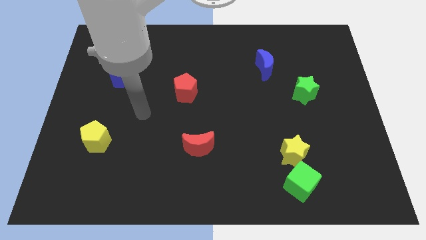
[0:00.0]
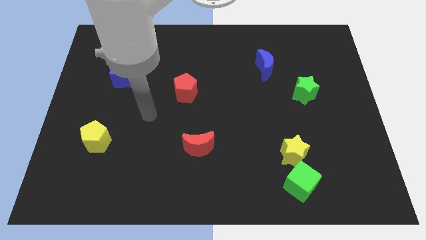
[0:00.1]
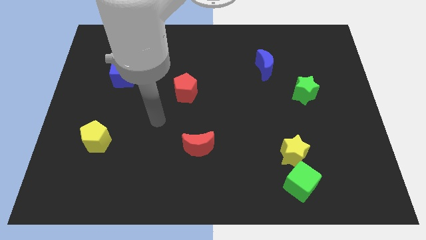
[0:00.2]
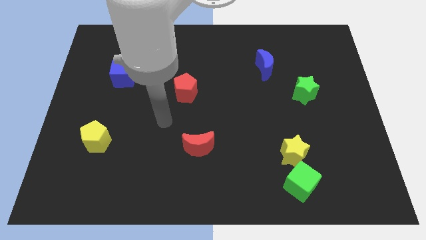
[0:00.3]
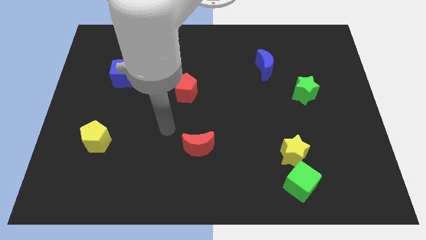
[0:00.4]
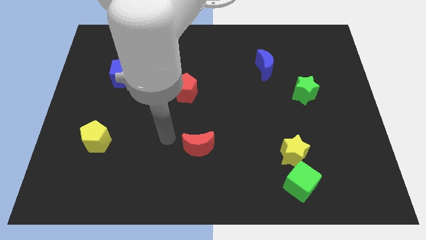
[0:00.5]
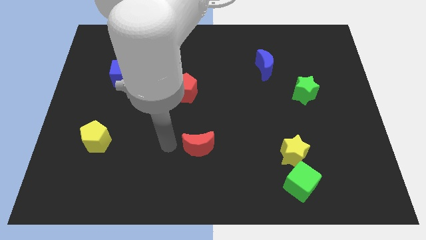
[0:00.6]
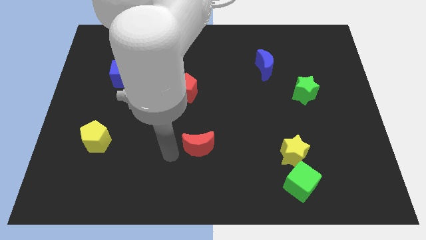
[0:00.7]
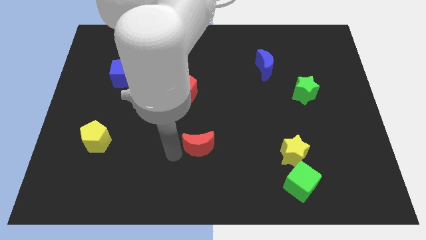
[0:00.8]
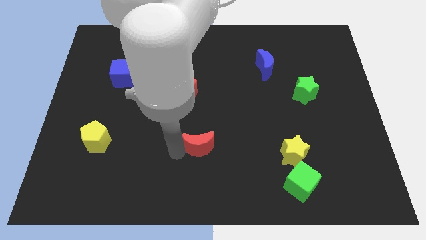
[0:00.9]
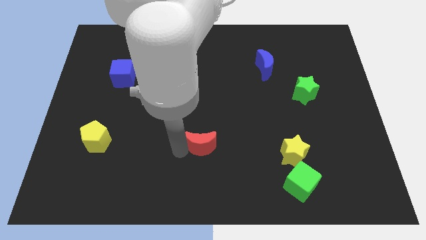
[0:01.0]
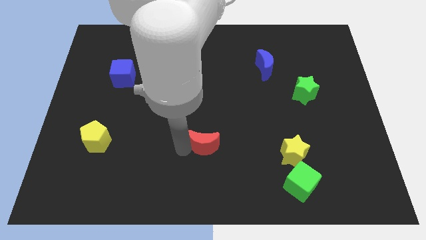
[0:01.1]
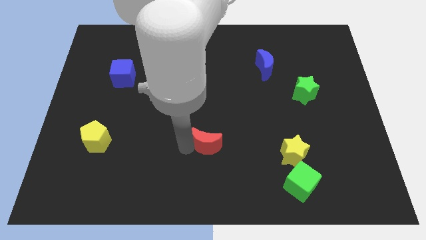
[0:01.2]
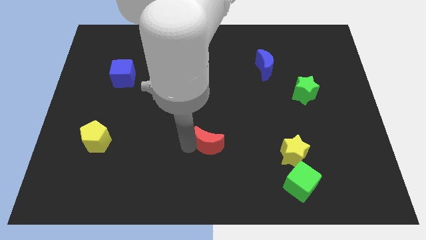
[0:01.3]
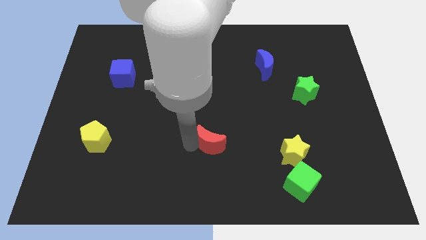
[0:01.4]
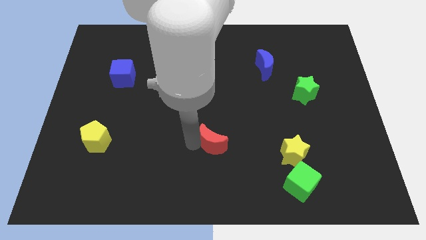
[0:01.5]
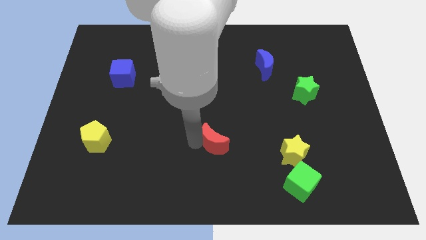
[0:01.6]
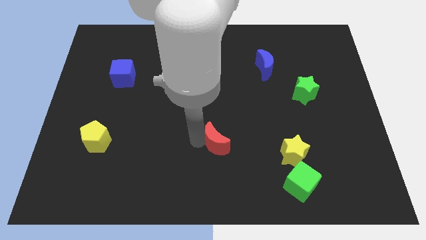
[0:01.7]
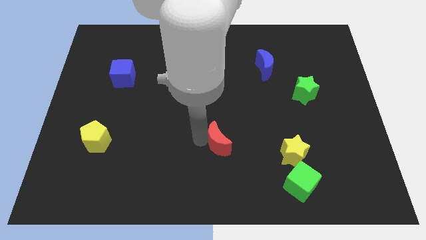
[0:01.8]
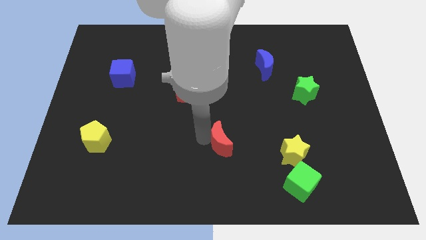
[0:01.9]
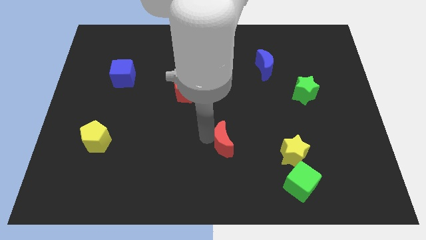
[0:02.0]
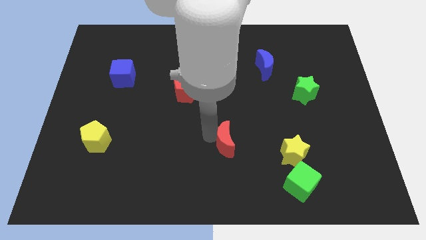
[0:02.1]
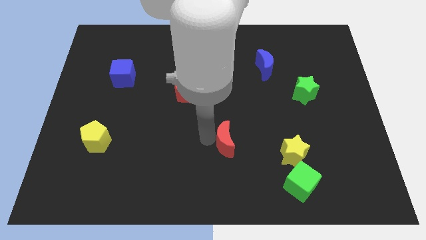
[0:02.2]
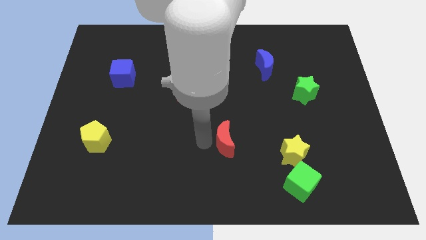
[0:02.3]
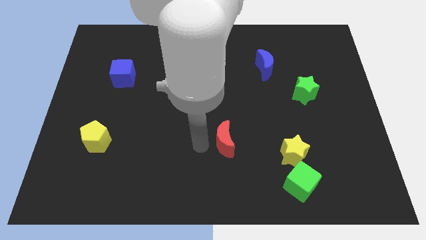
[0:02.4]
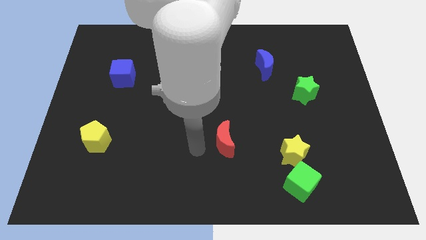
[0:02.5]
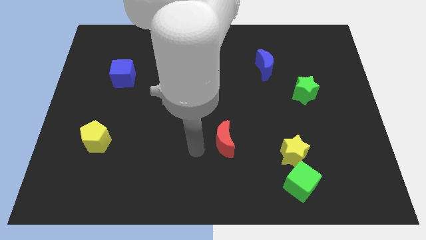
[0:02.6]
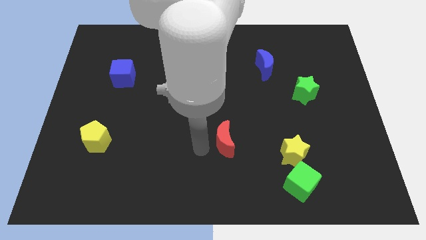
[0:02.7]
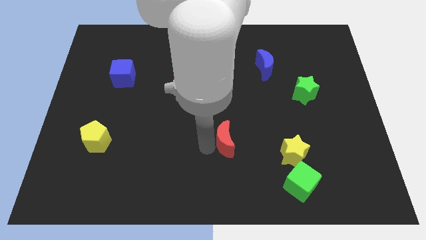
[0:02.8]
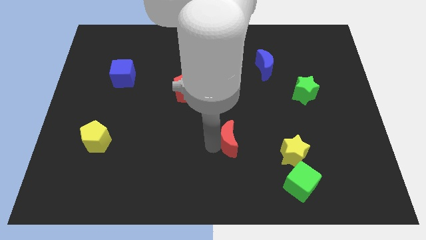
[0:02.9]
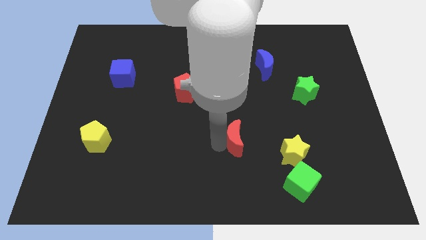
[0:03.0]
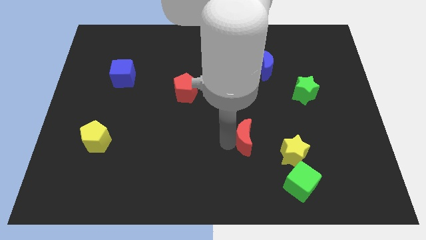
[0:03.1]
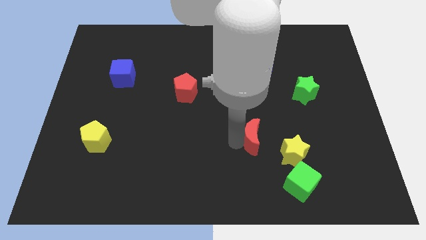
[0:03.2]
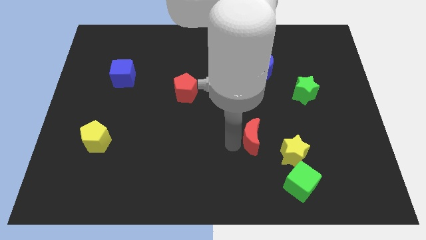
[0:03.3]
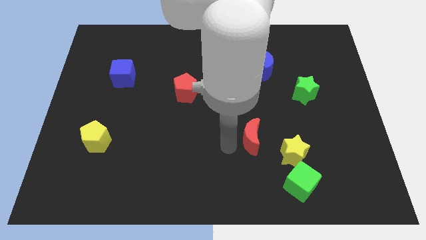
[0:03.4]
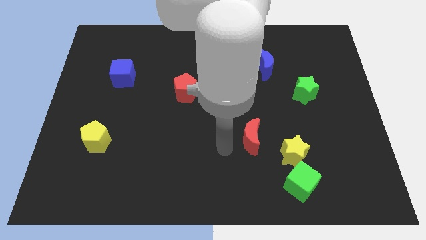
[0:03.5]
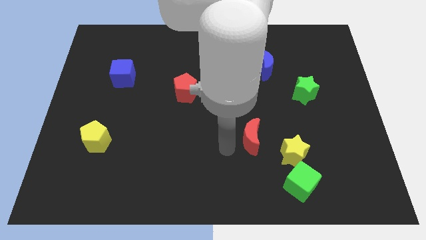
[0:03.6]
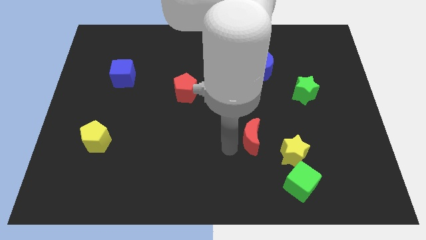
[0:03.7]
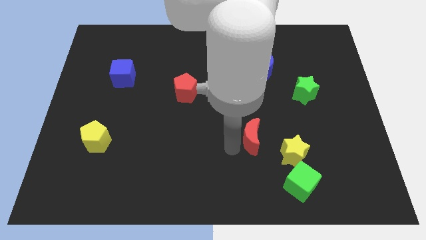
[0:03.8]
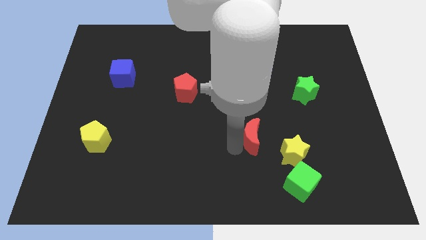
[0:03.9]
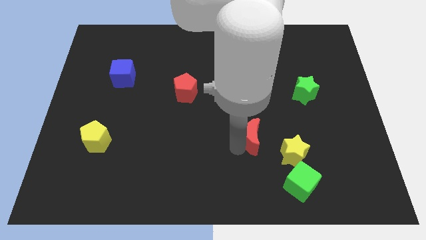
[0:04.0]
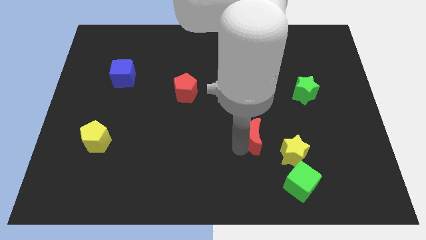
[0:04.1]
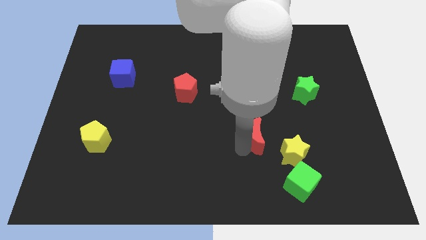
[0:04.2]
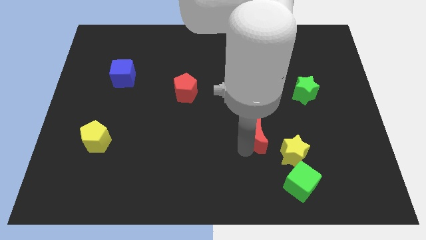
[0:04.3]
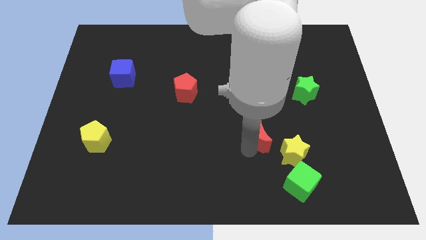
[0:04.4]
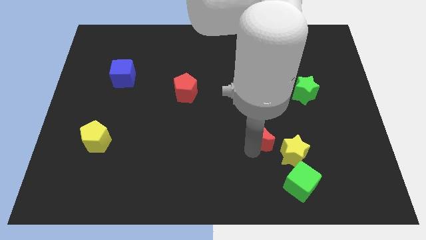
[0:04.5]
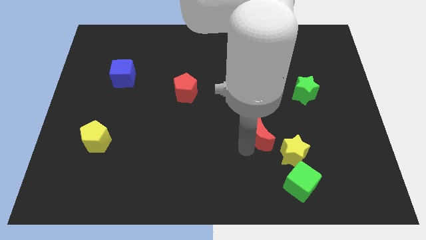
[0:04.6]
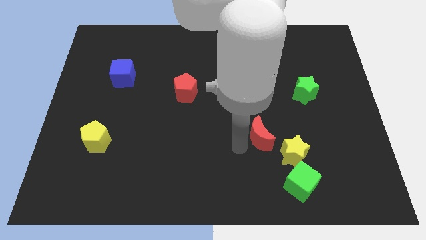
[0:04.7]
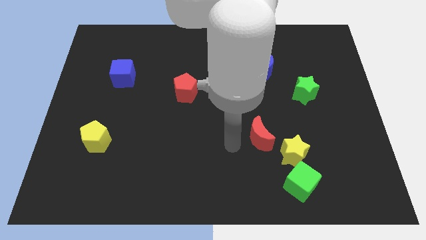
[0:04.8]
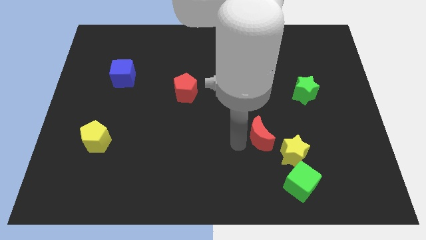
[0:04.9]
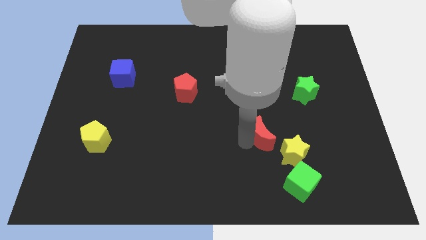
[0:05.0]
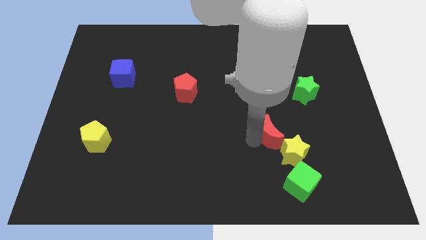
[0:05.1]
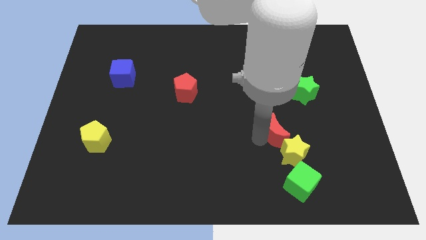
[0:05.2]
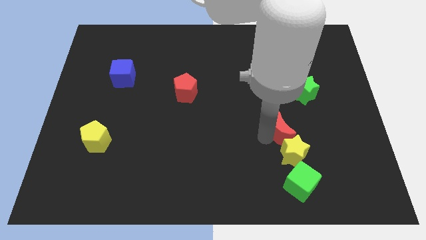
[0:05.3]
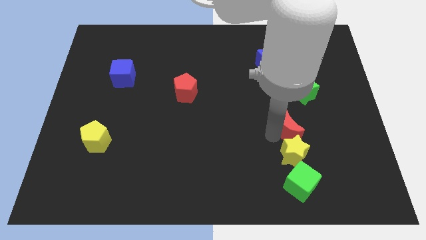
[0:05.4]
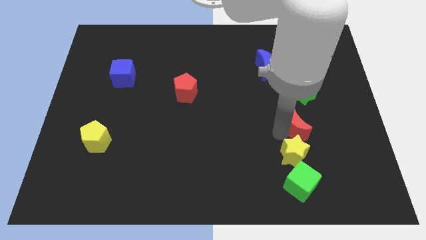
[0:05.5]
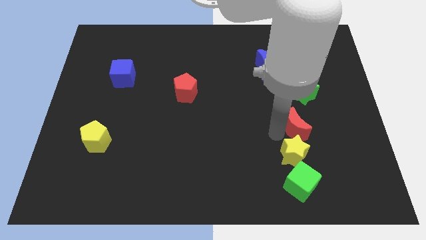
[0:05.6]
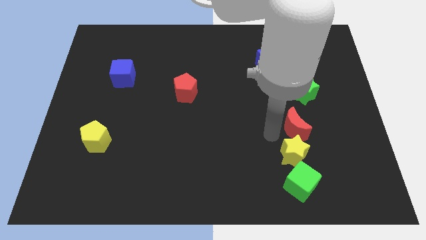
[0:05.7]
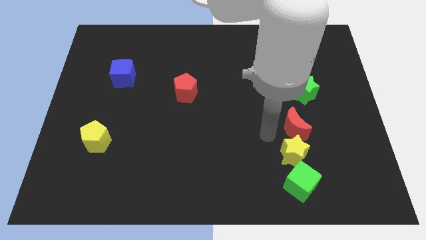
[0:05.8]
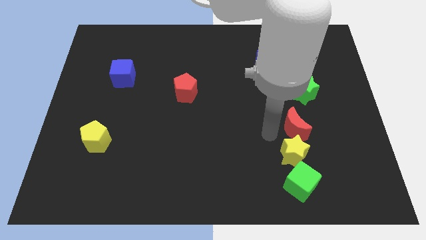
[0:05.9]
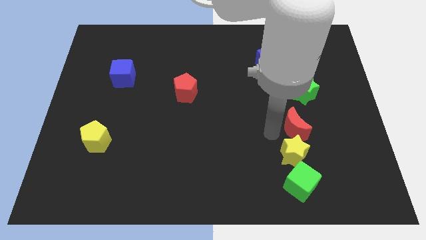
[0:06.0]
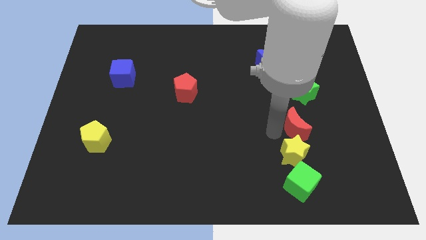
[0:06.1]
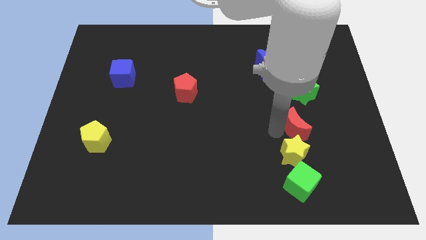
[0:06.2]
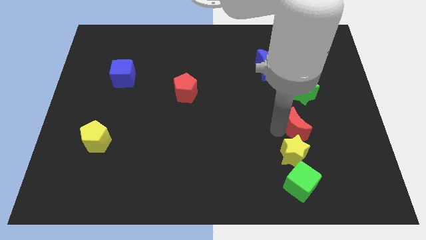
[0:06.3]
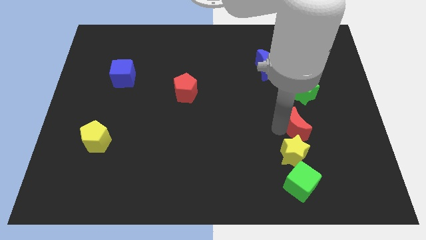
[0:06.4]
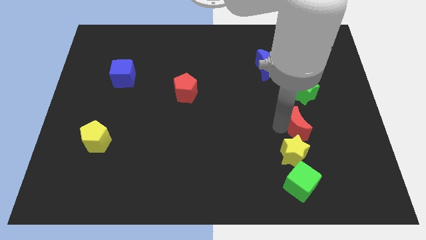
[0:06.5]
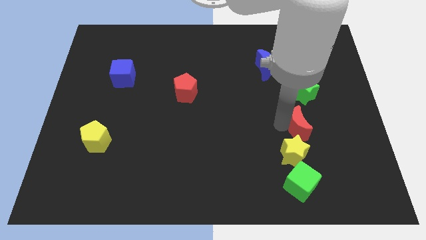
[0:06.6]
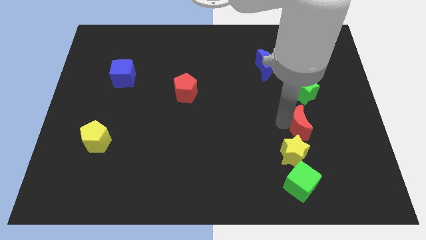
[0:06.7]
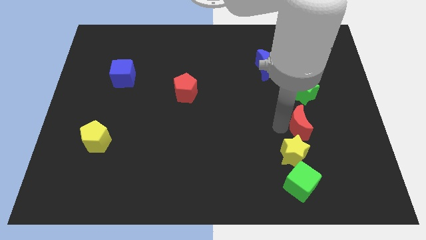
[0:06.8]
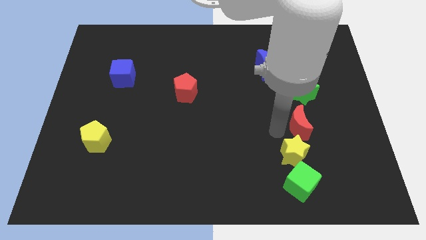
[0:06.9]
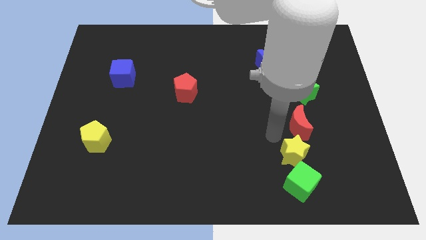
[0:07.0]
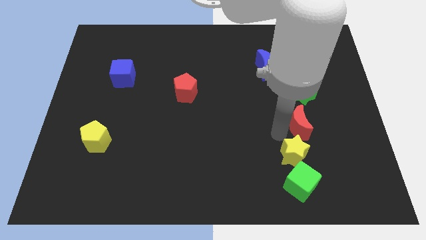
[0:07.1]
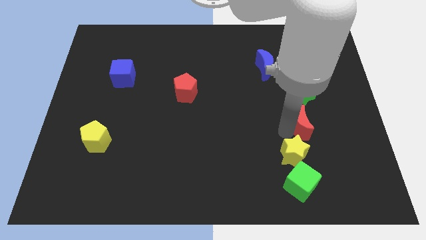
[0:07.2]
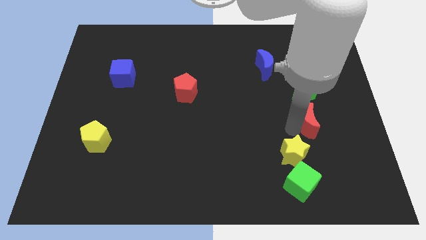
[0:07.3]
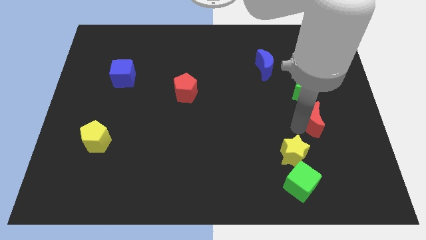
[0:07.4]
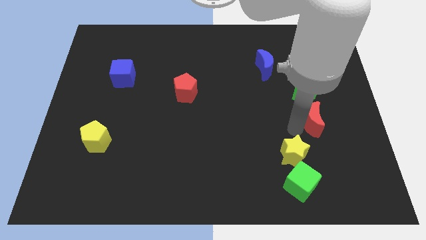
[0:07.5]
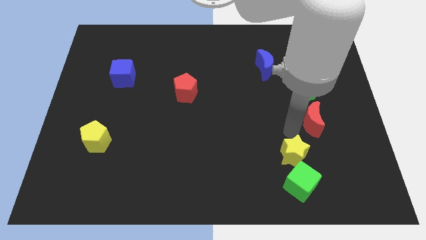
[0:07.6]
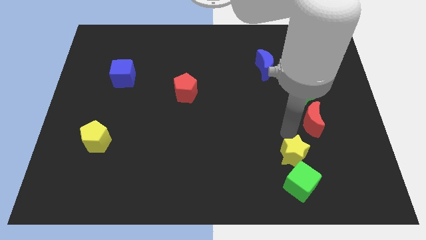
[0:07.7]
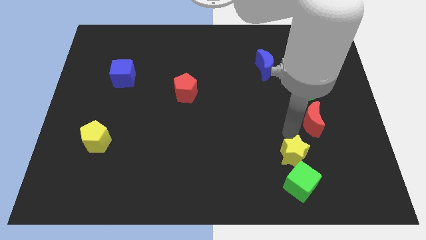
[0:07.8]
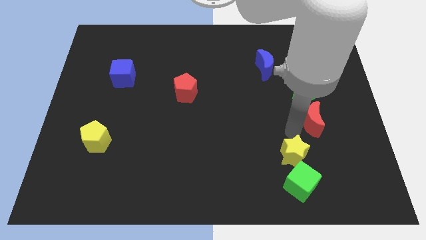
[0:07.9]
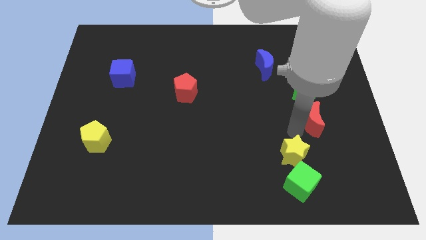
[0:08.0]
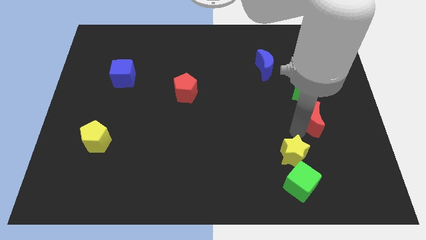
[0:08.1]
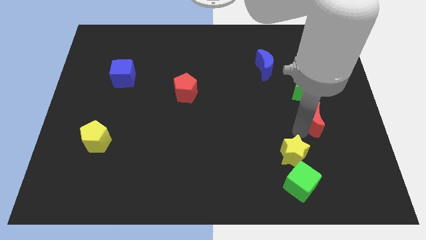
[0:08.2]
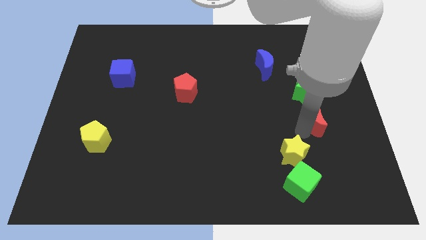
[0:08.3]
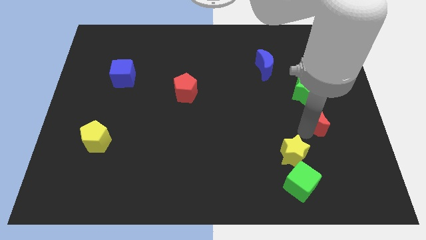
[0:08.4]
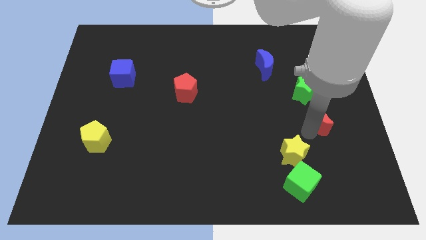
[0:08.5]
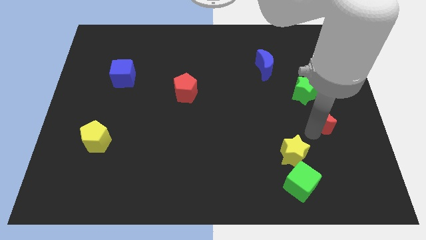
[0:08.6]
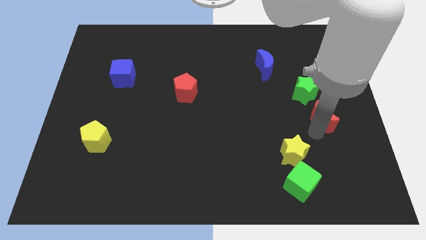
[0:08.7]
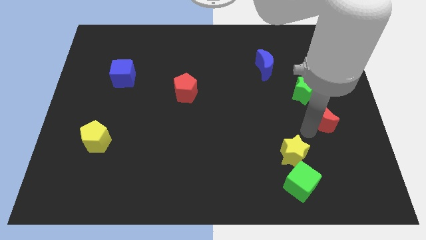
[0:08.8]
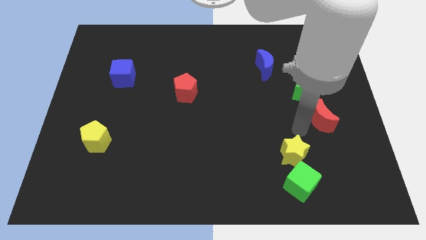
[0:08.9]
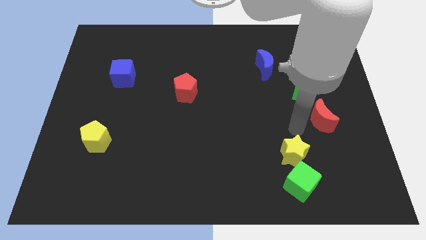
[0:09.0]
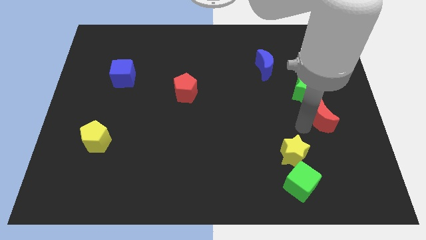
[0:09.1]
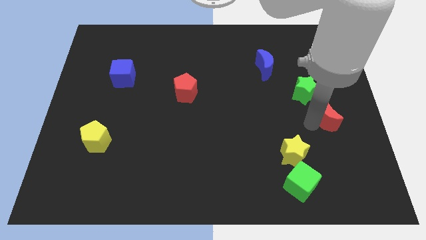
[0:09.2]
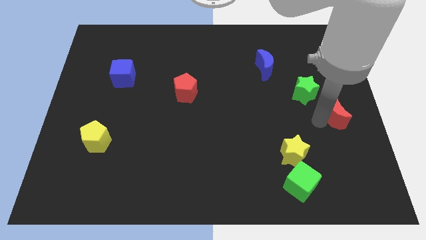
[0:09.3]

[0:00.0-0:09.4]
slide the red moon to the right side
